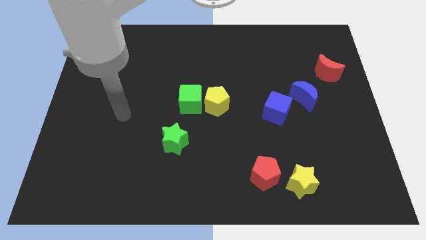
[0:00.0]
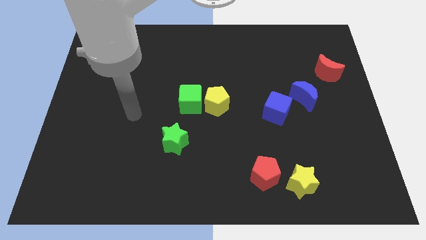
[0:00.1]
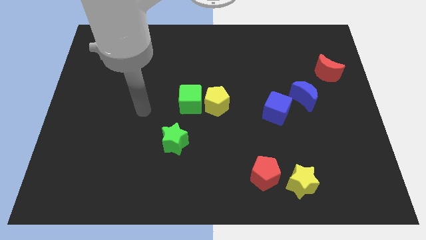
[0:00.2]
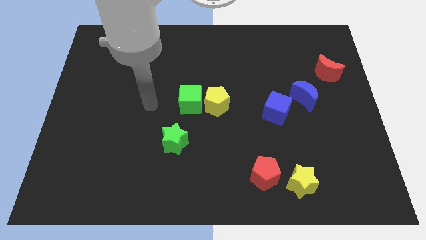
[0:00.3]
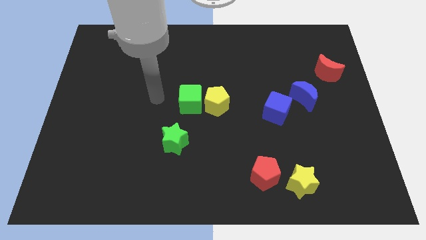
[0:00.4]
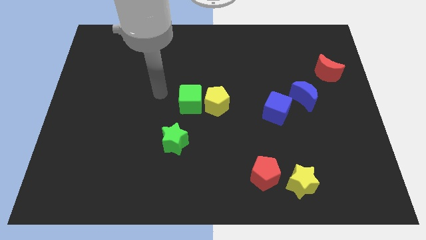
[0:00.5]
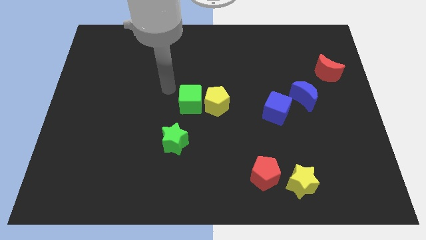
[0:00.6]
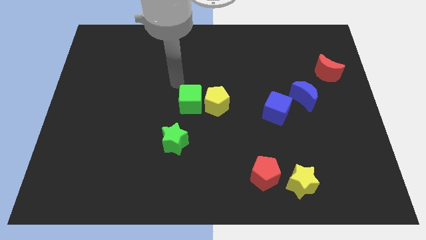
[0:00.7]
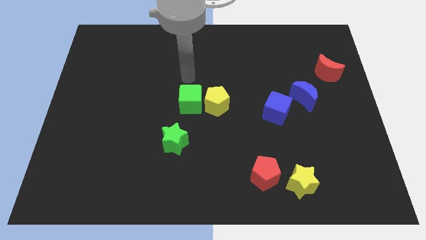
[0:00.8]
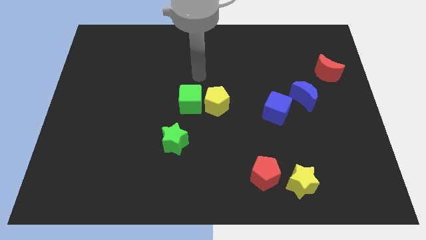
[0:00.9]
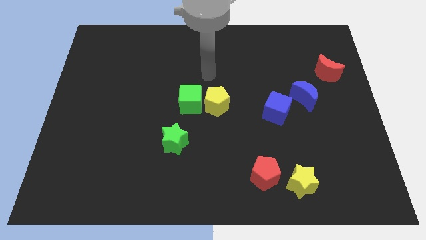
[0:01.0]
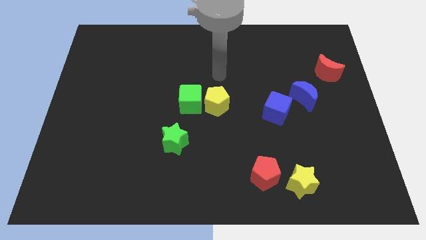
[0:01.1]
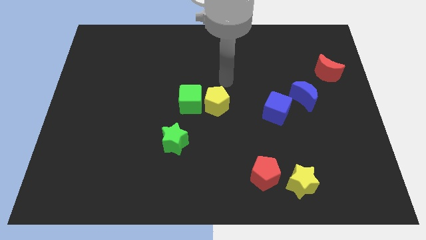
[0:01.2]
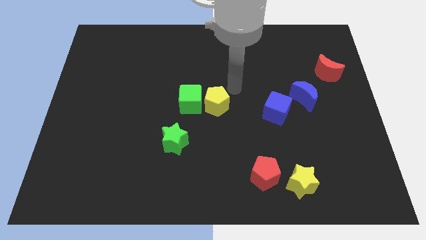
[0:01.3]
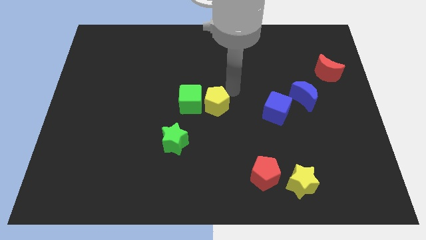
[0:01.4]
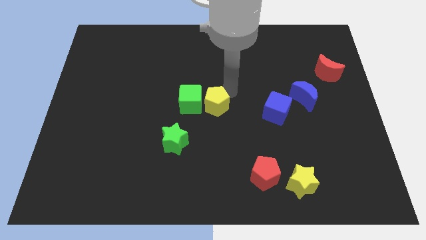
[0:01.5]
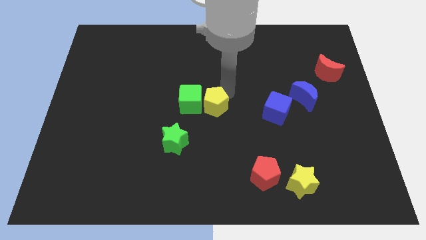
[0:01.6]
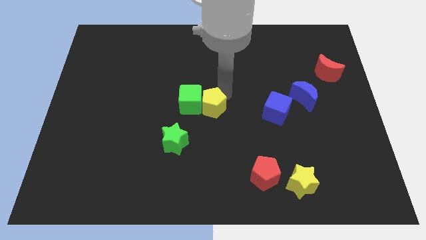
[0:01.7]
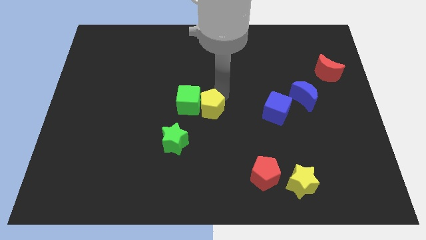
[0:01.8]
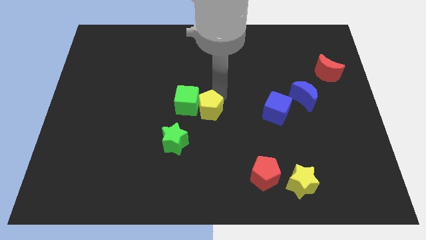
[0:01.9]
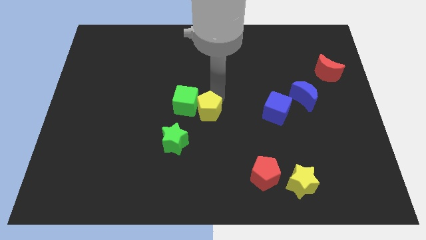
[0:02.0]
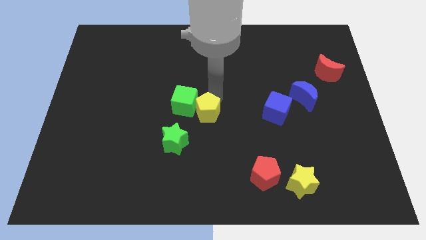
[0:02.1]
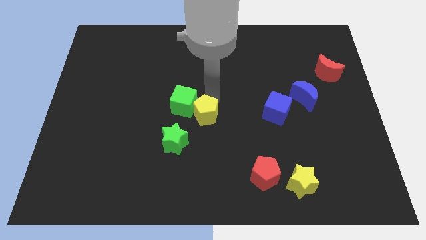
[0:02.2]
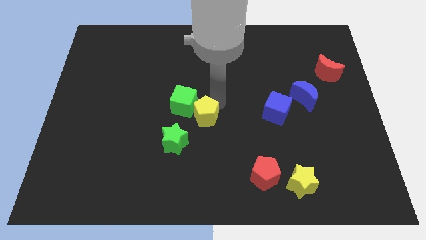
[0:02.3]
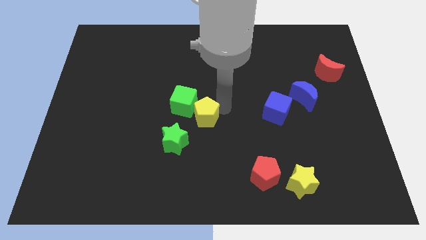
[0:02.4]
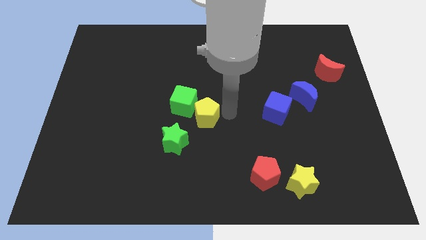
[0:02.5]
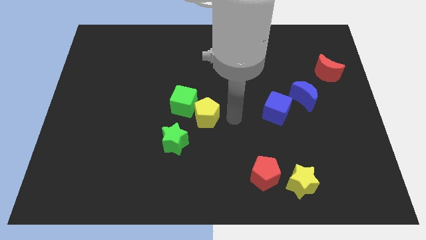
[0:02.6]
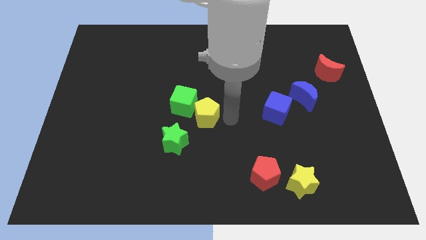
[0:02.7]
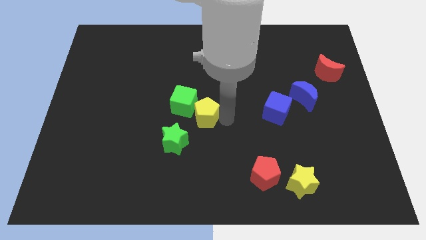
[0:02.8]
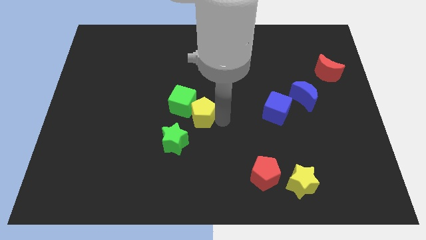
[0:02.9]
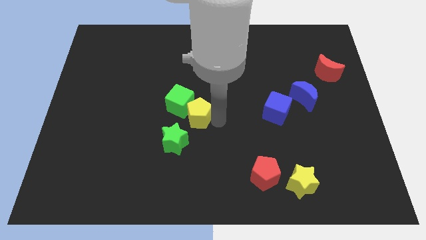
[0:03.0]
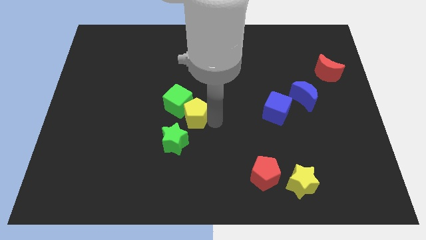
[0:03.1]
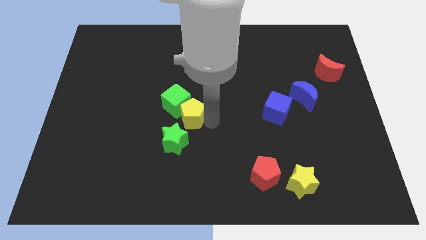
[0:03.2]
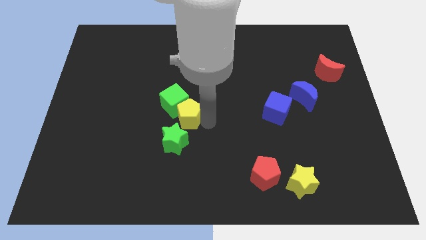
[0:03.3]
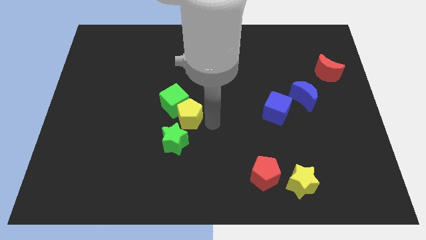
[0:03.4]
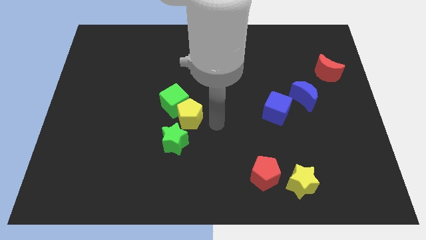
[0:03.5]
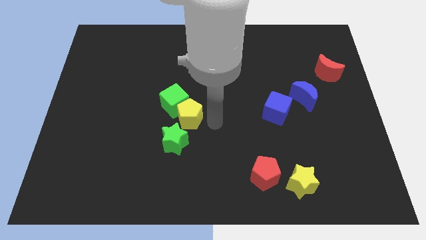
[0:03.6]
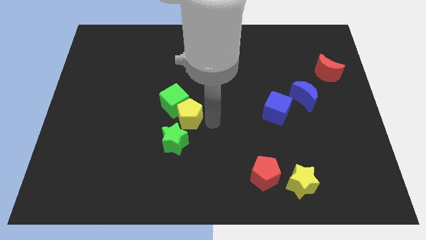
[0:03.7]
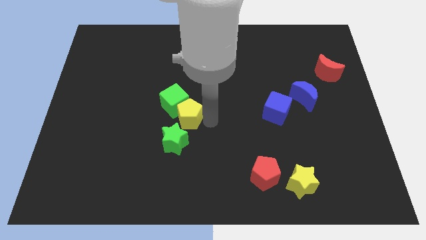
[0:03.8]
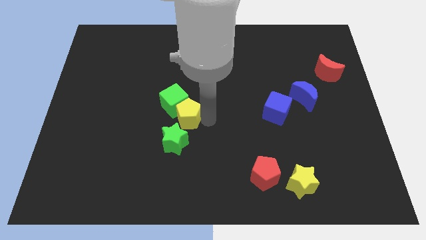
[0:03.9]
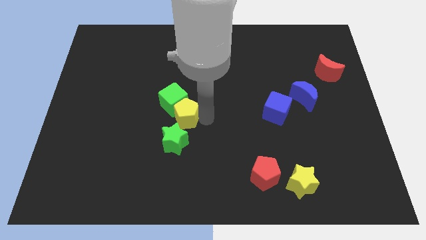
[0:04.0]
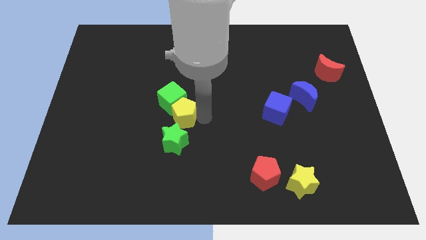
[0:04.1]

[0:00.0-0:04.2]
slide the yellow pentagon somewhat to the left

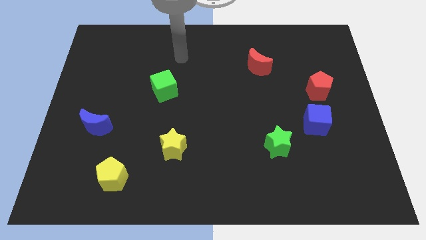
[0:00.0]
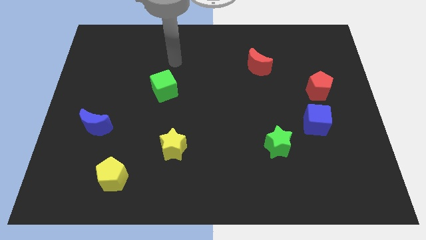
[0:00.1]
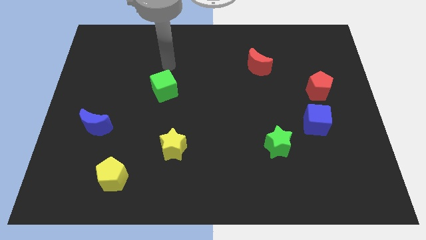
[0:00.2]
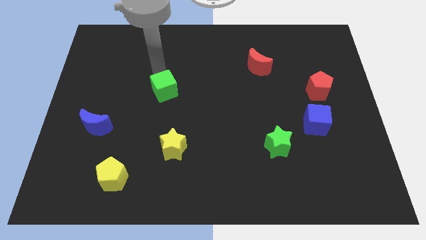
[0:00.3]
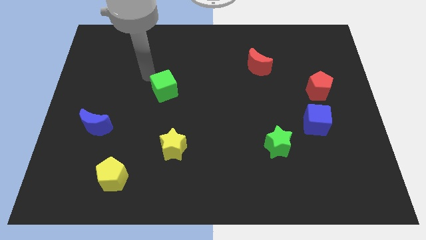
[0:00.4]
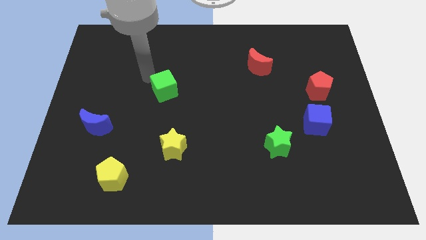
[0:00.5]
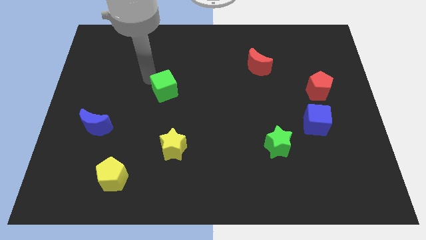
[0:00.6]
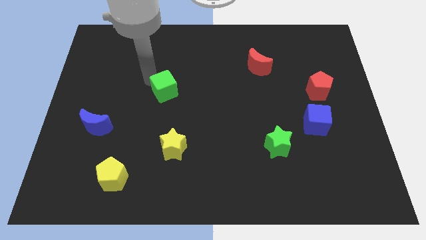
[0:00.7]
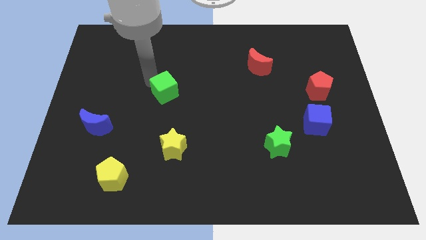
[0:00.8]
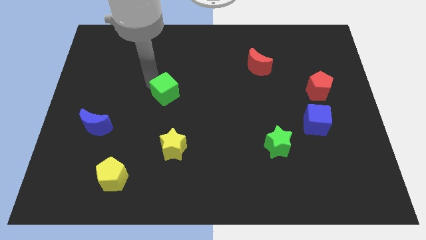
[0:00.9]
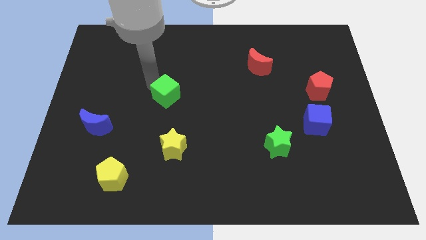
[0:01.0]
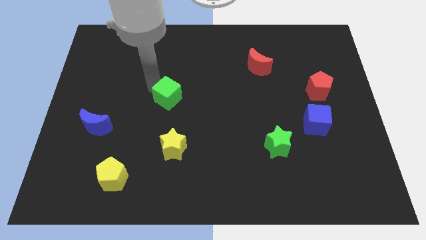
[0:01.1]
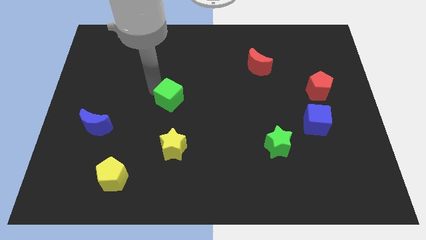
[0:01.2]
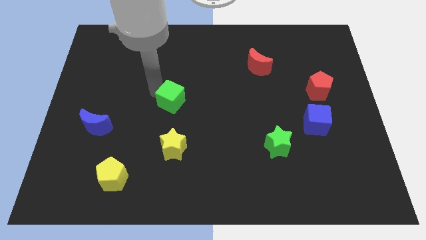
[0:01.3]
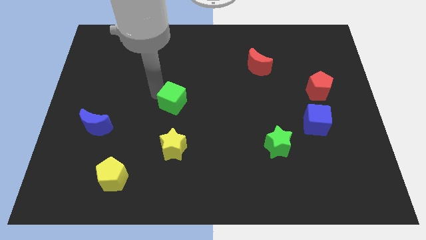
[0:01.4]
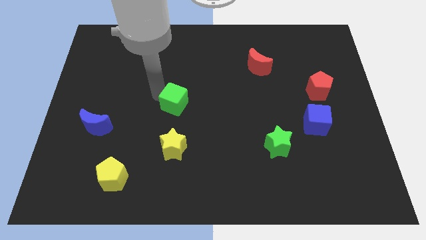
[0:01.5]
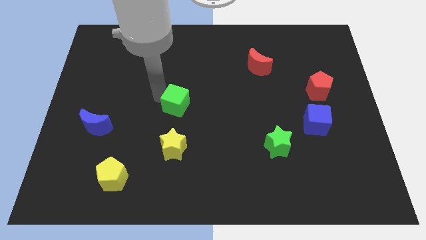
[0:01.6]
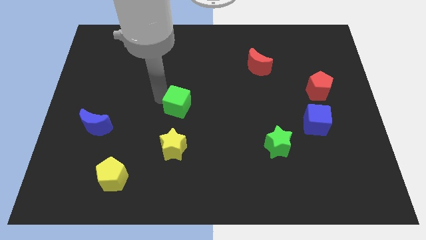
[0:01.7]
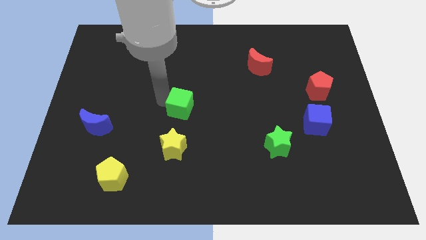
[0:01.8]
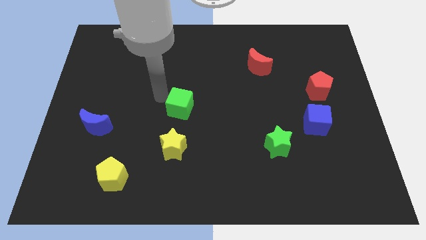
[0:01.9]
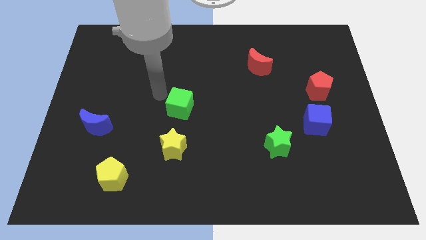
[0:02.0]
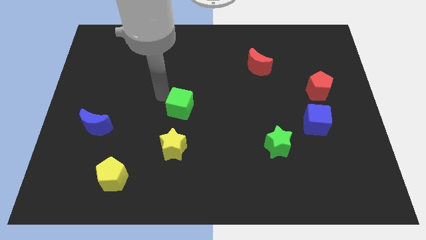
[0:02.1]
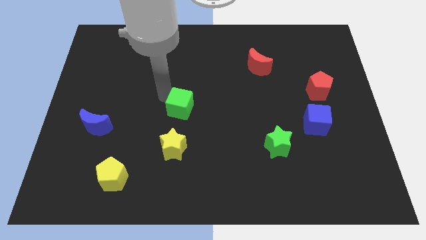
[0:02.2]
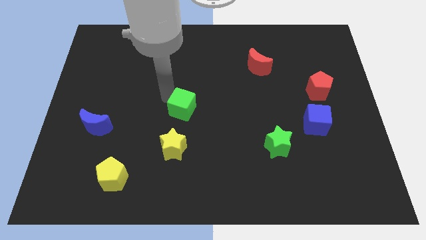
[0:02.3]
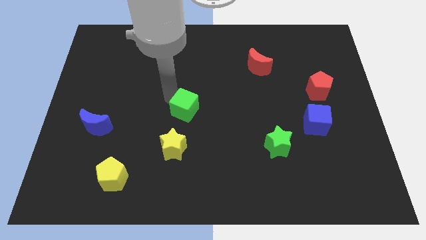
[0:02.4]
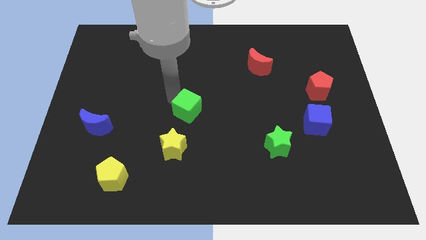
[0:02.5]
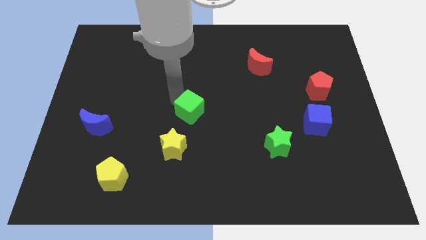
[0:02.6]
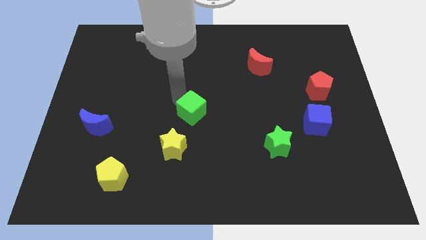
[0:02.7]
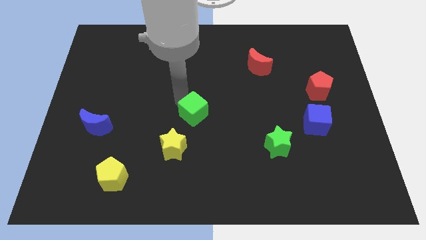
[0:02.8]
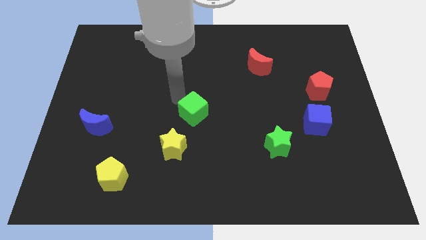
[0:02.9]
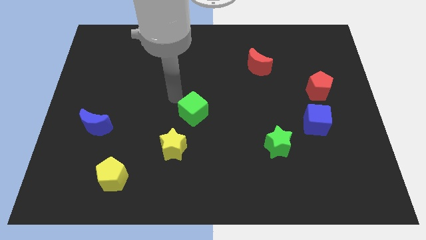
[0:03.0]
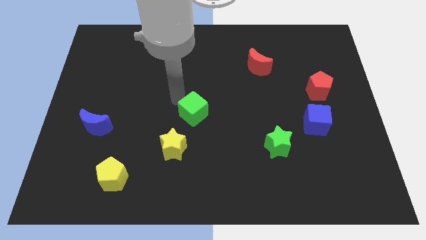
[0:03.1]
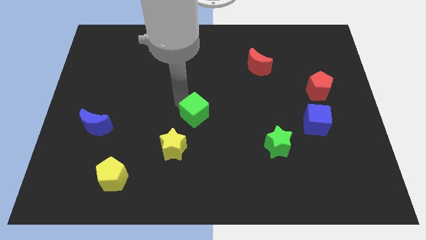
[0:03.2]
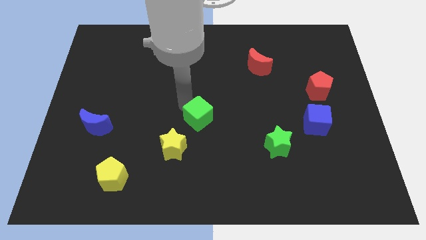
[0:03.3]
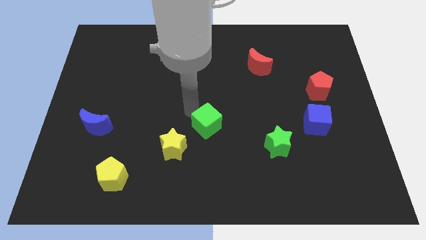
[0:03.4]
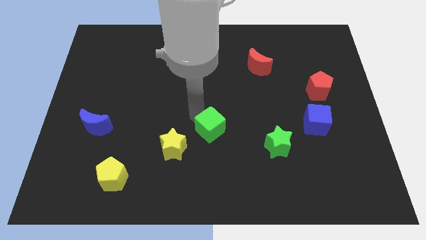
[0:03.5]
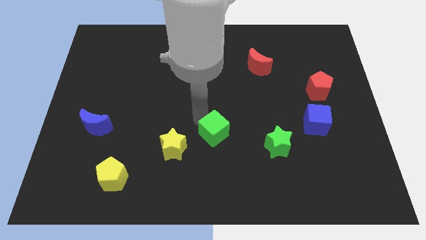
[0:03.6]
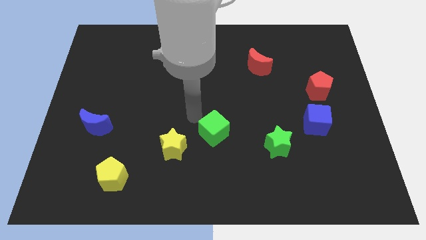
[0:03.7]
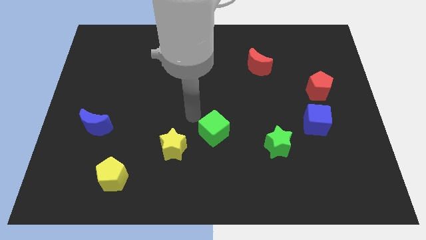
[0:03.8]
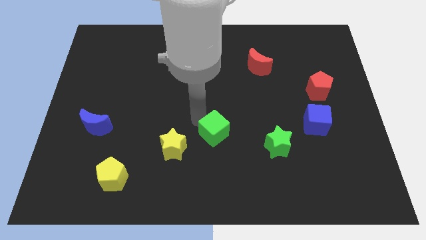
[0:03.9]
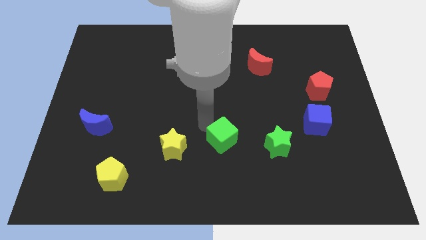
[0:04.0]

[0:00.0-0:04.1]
slide the green cube downwards and then right
